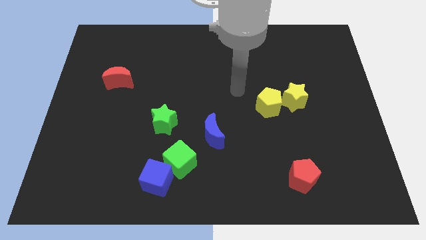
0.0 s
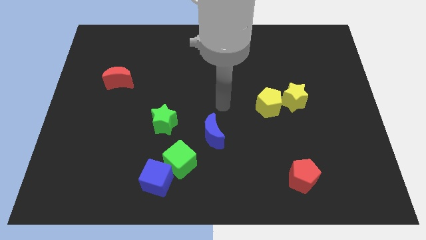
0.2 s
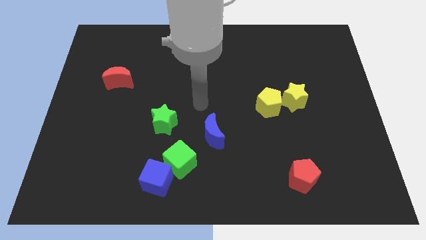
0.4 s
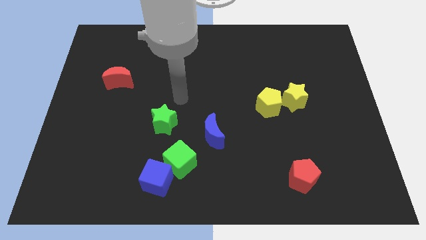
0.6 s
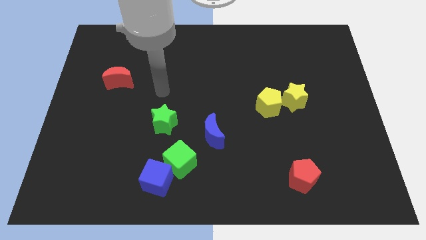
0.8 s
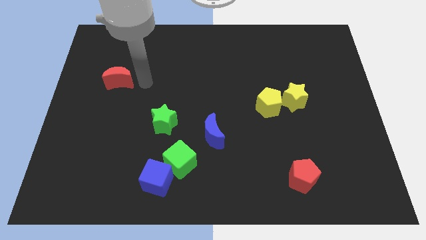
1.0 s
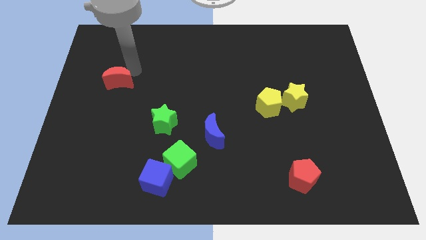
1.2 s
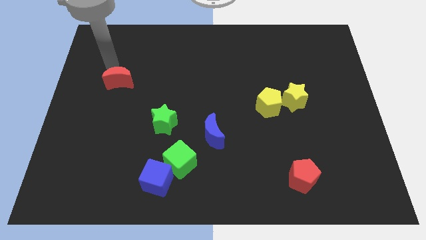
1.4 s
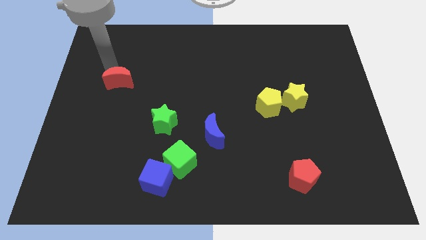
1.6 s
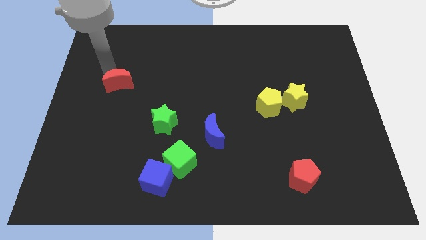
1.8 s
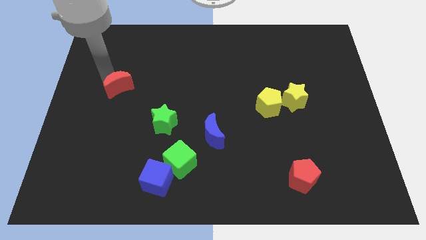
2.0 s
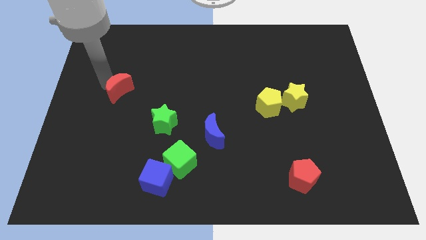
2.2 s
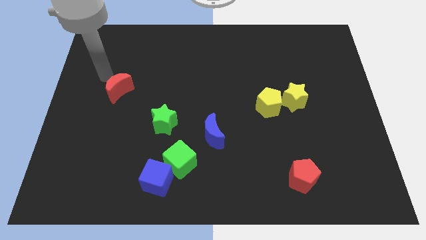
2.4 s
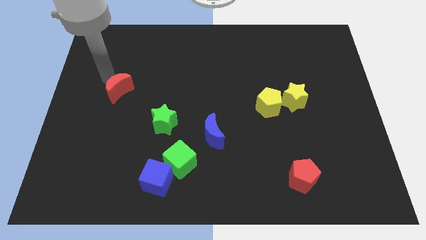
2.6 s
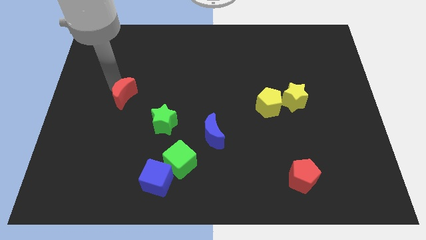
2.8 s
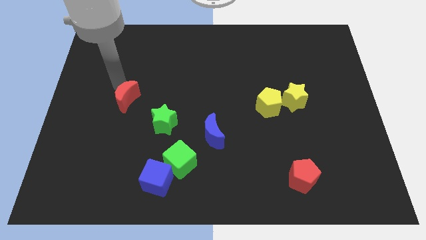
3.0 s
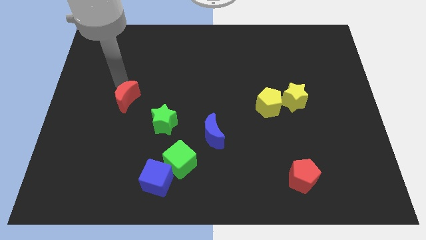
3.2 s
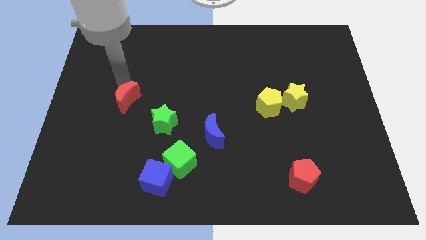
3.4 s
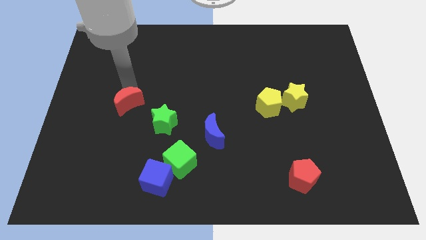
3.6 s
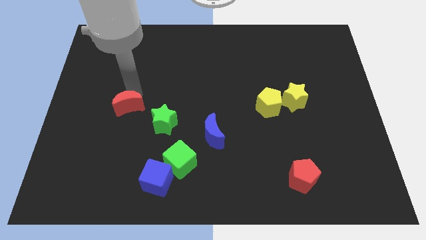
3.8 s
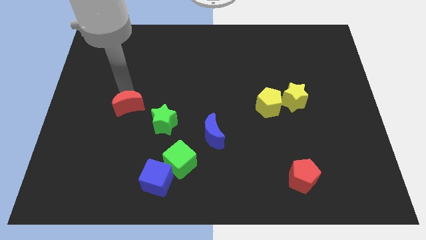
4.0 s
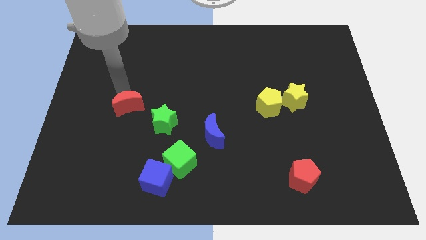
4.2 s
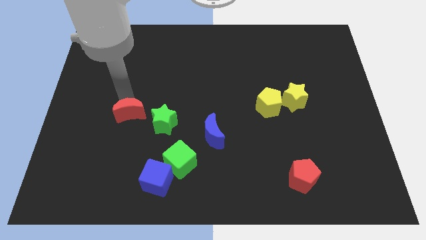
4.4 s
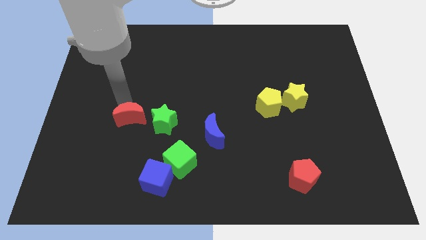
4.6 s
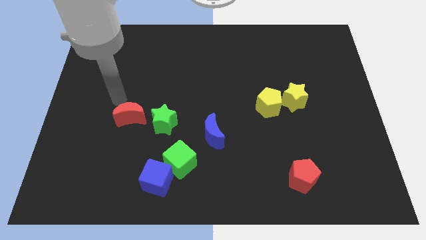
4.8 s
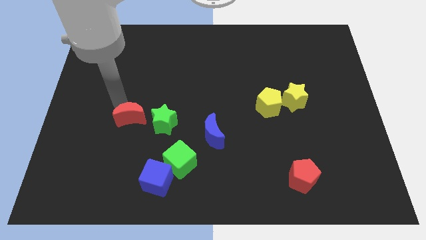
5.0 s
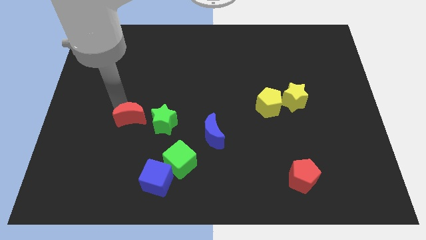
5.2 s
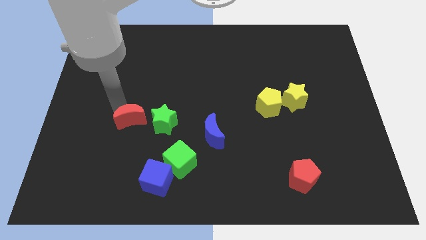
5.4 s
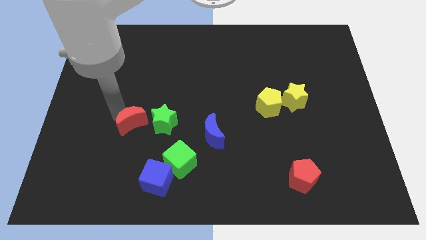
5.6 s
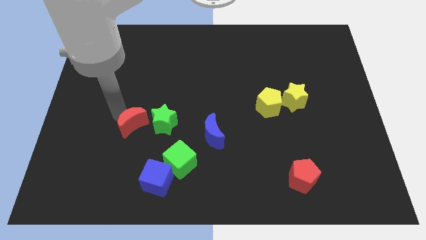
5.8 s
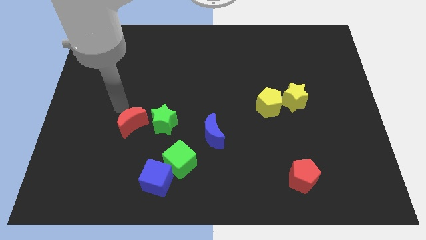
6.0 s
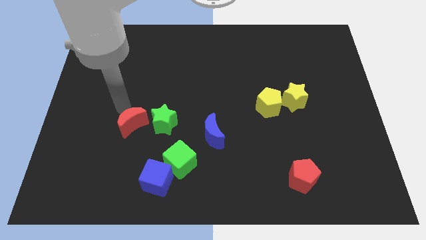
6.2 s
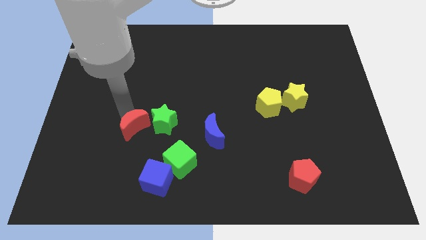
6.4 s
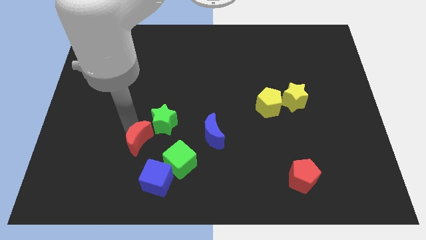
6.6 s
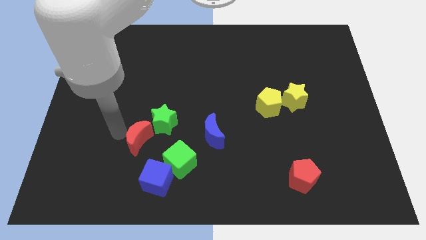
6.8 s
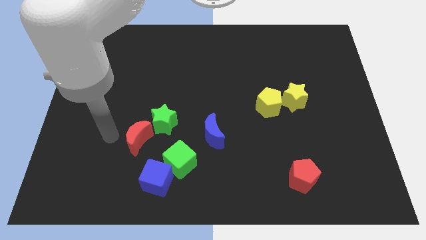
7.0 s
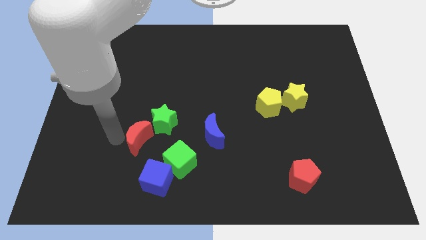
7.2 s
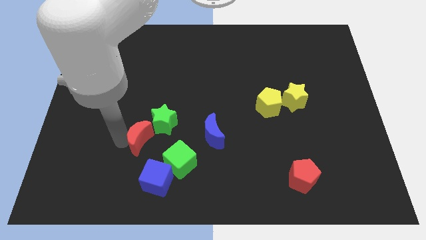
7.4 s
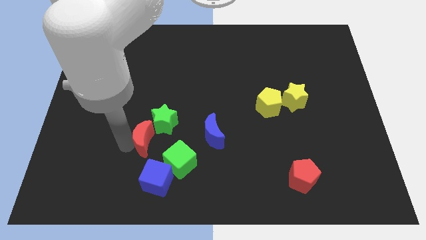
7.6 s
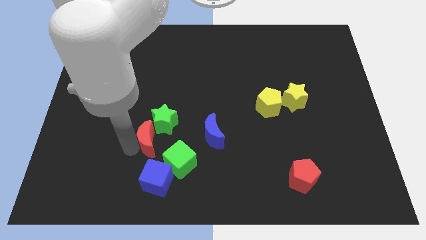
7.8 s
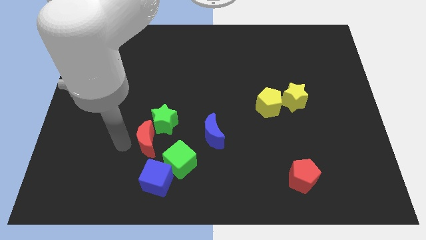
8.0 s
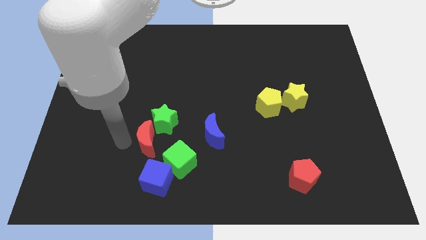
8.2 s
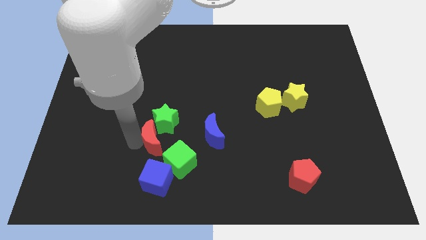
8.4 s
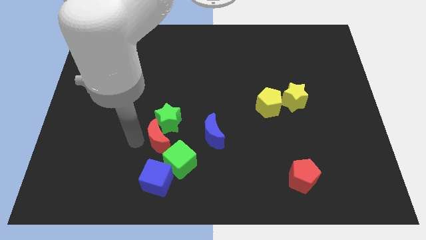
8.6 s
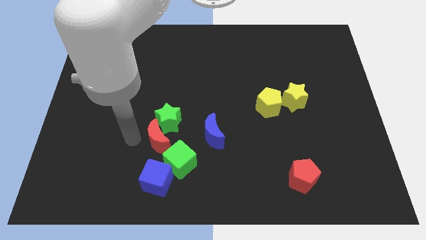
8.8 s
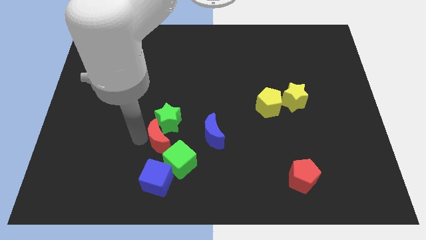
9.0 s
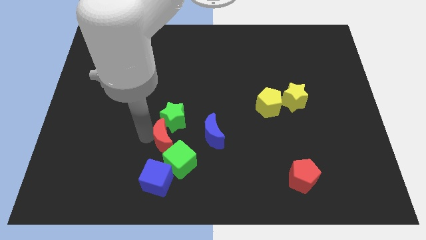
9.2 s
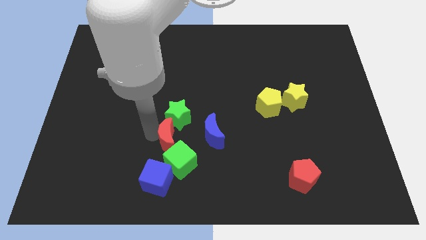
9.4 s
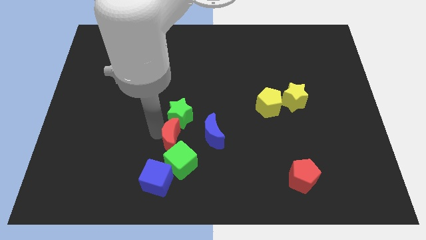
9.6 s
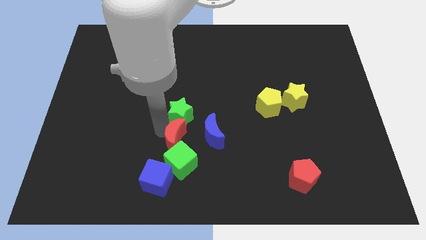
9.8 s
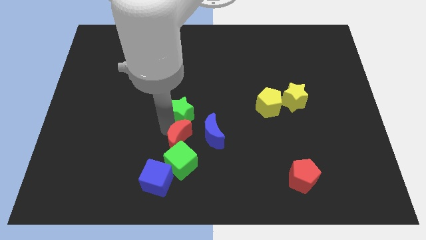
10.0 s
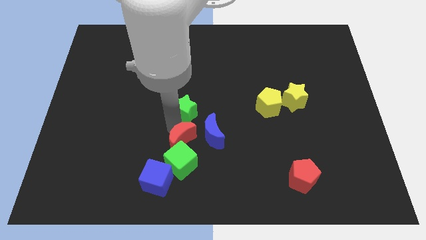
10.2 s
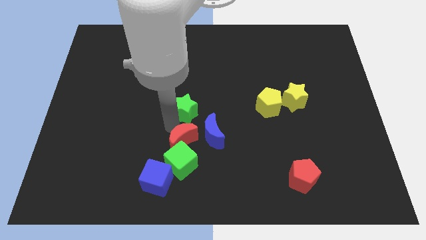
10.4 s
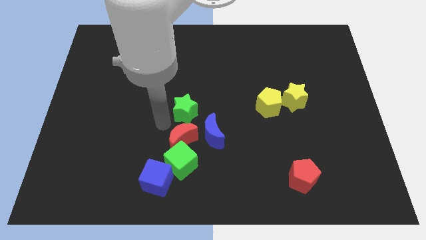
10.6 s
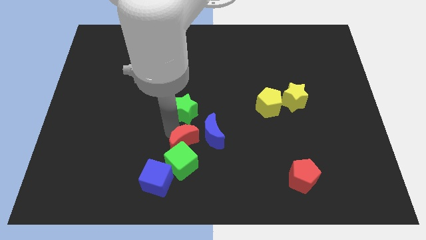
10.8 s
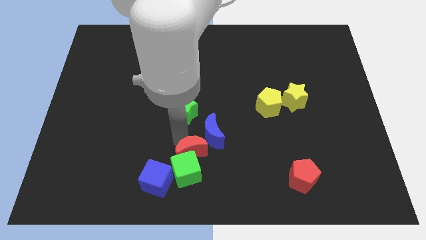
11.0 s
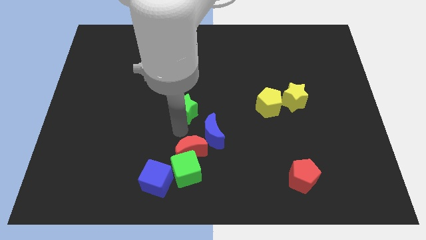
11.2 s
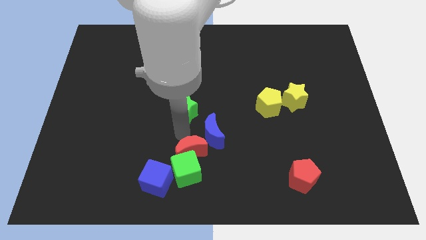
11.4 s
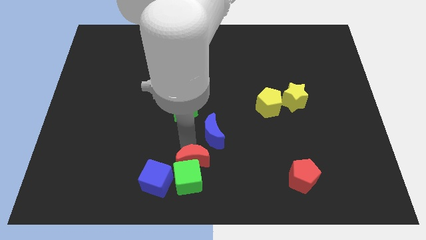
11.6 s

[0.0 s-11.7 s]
slide the red moon to the bottom side

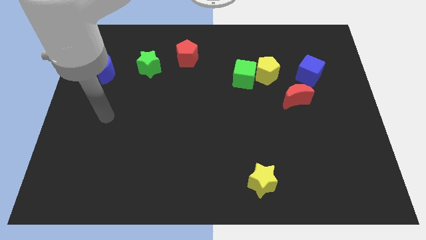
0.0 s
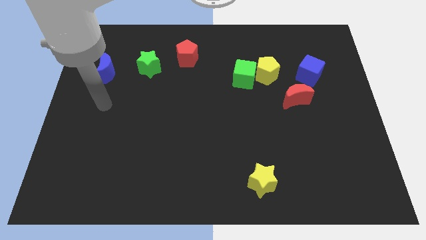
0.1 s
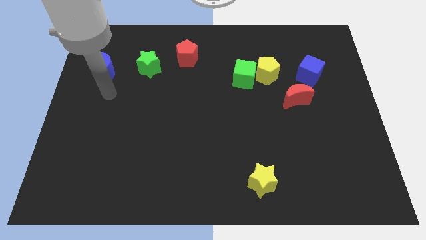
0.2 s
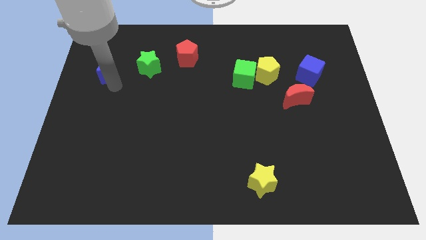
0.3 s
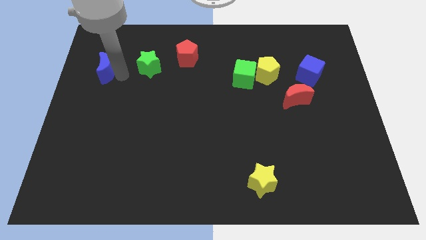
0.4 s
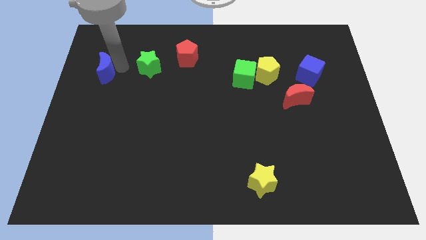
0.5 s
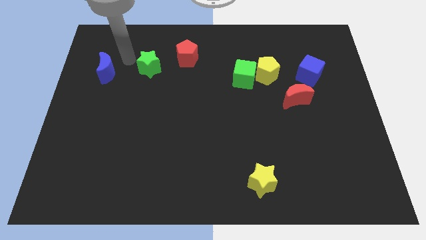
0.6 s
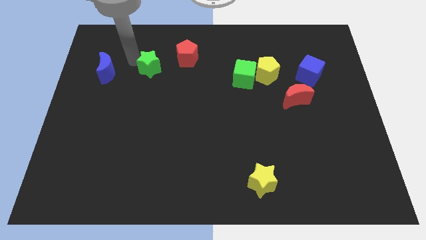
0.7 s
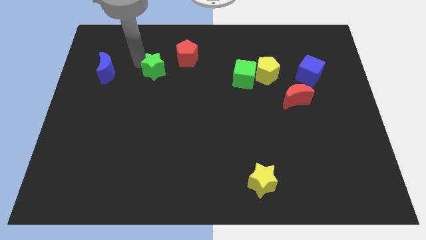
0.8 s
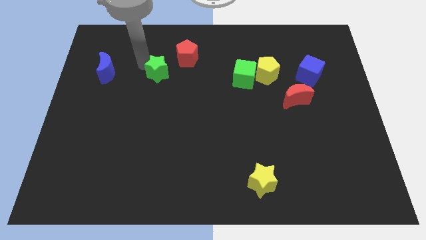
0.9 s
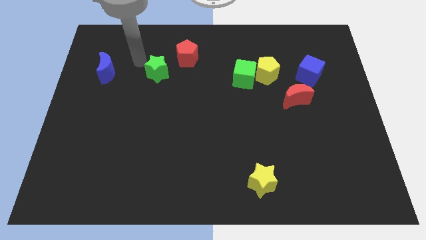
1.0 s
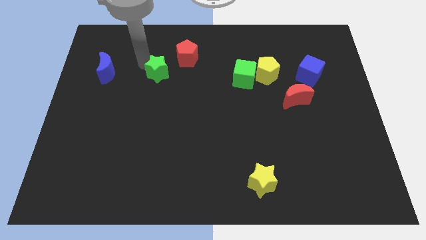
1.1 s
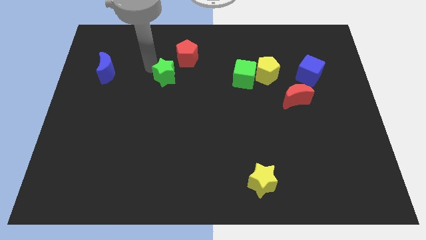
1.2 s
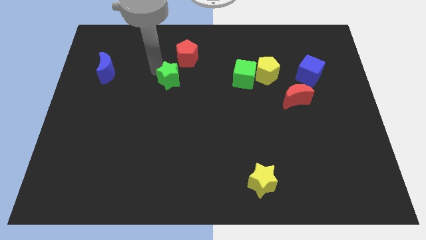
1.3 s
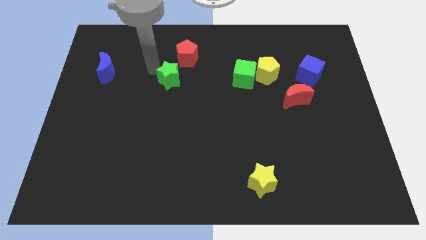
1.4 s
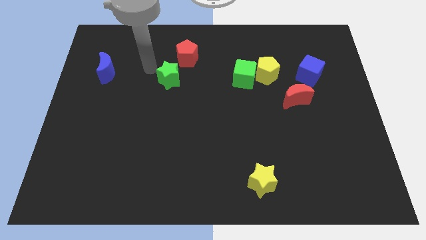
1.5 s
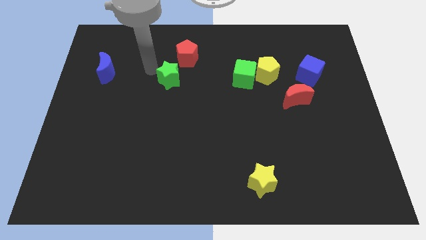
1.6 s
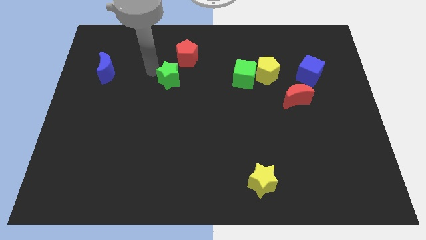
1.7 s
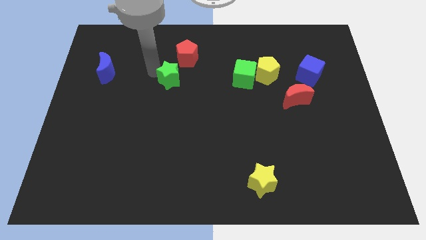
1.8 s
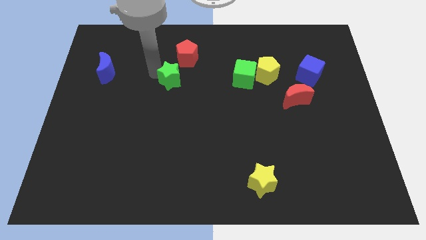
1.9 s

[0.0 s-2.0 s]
slide the green star to the middle of the board
